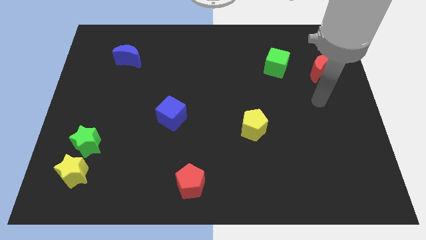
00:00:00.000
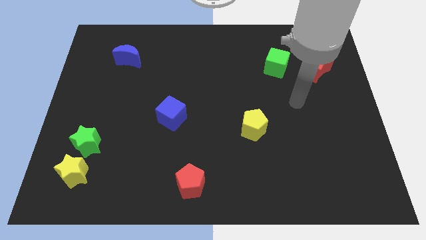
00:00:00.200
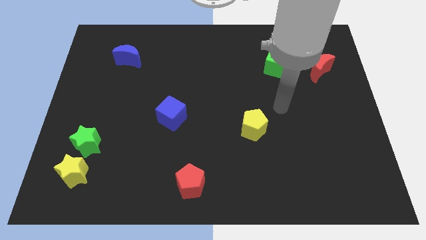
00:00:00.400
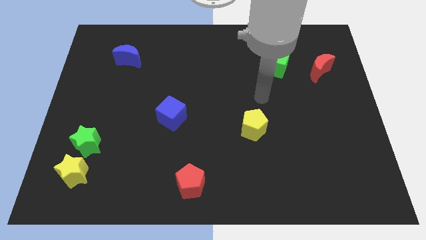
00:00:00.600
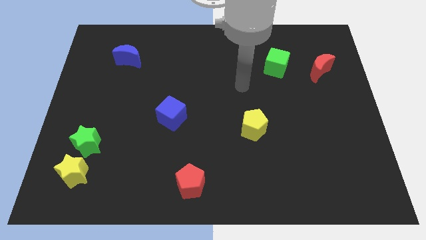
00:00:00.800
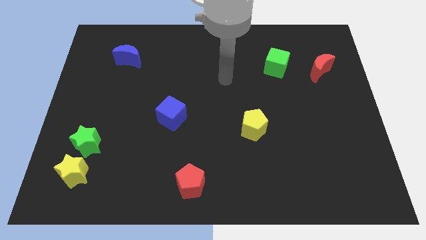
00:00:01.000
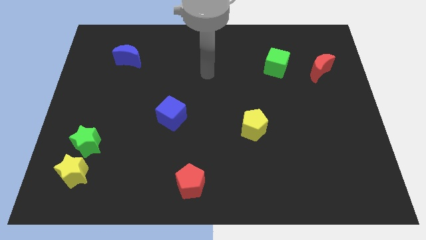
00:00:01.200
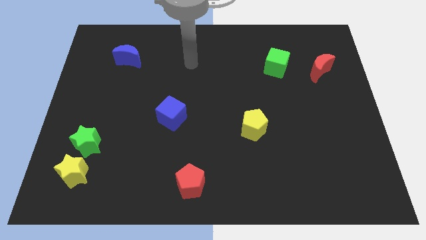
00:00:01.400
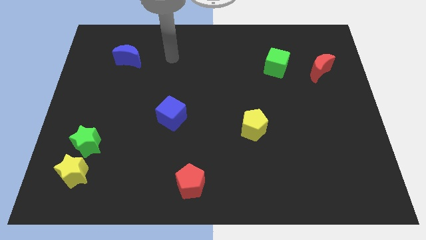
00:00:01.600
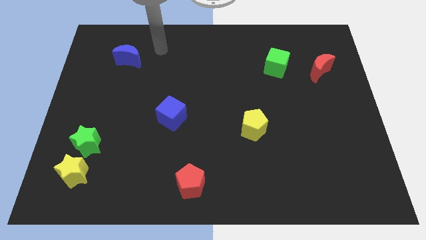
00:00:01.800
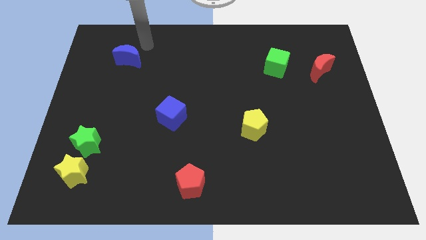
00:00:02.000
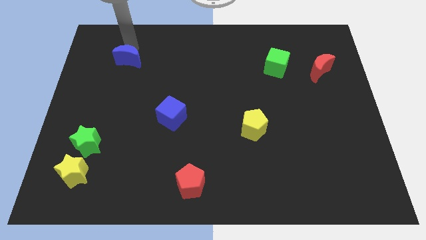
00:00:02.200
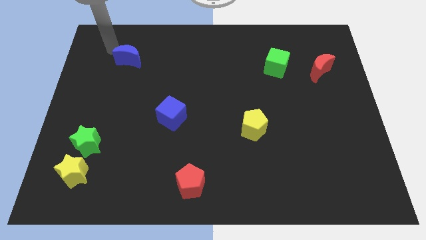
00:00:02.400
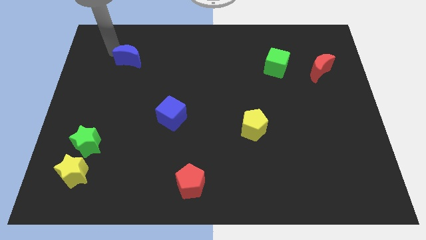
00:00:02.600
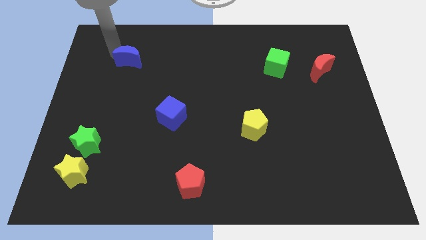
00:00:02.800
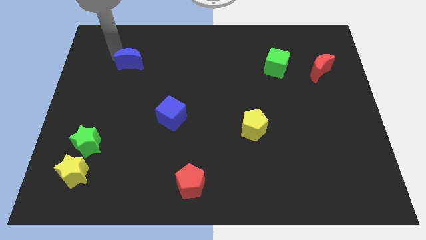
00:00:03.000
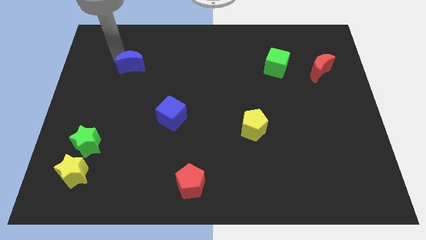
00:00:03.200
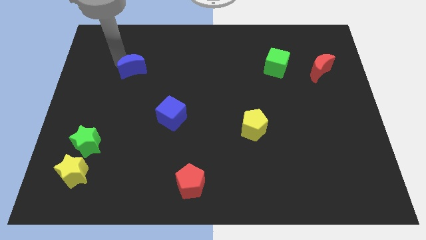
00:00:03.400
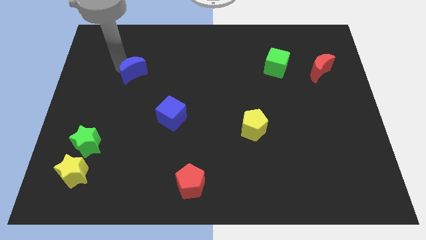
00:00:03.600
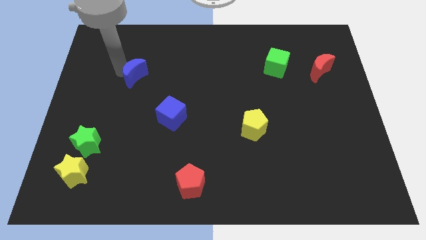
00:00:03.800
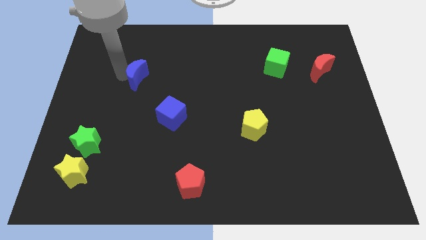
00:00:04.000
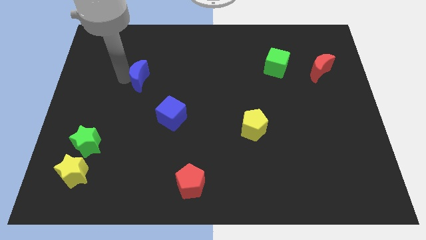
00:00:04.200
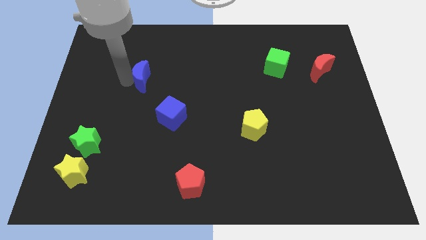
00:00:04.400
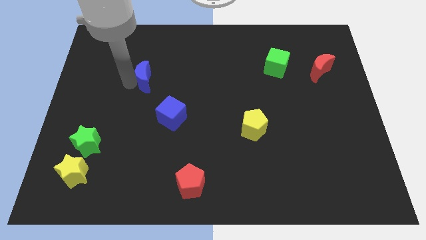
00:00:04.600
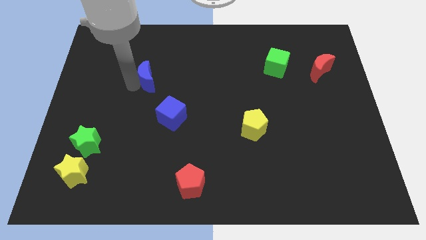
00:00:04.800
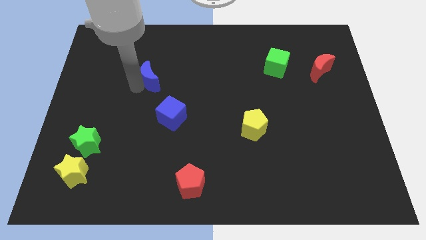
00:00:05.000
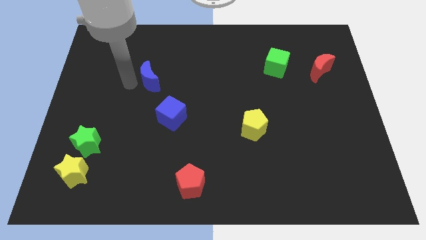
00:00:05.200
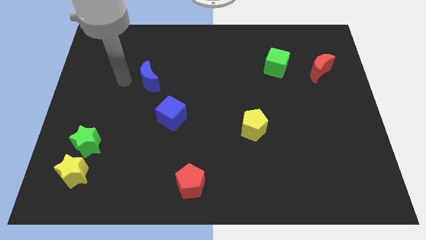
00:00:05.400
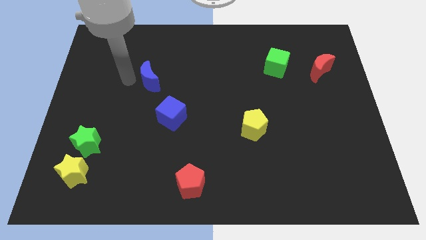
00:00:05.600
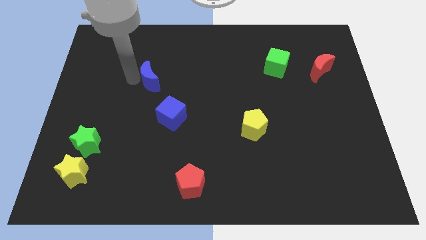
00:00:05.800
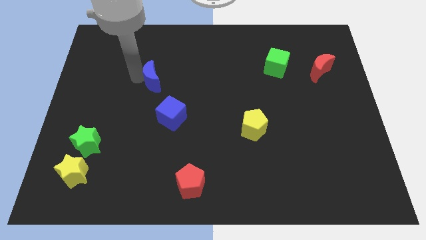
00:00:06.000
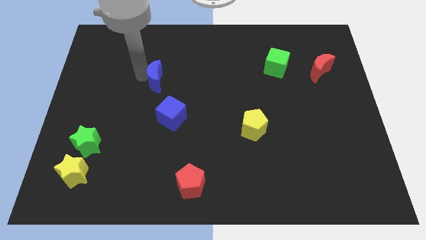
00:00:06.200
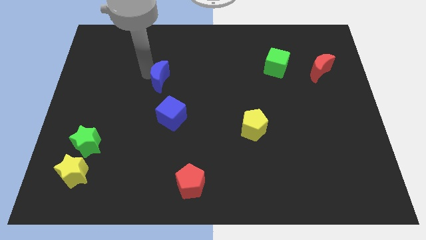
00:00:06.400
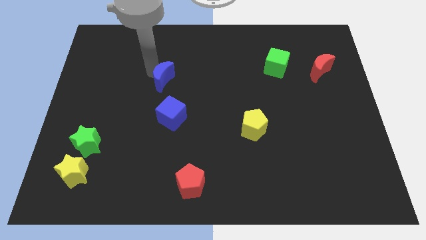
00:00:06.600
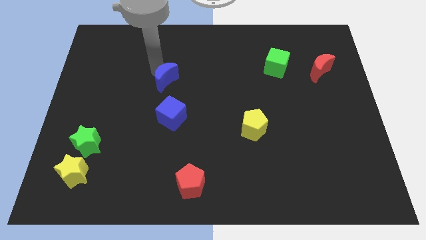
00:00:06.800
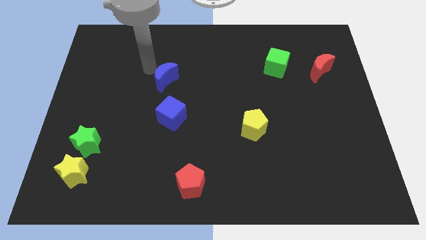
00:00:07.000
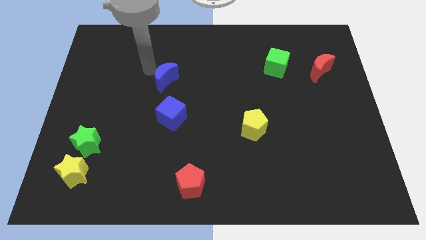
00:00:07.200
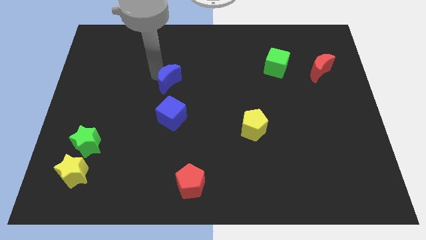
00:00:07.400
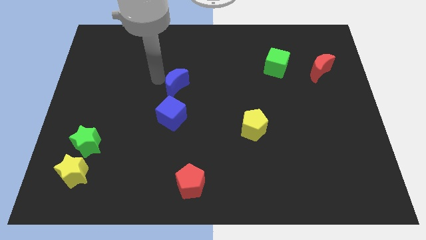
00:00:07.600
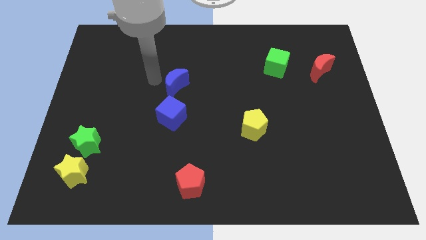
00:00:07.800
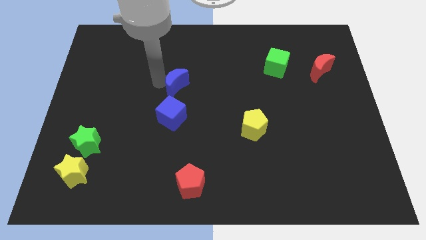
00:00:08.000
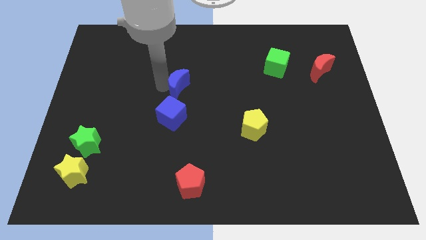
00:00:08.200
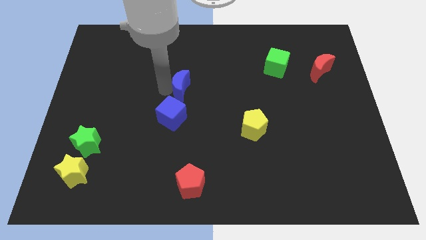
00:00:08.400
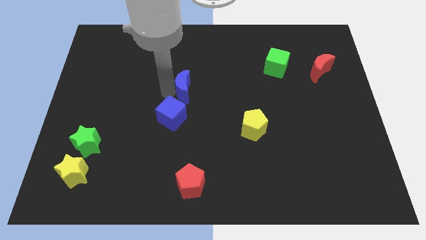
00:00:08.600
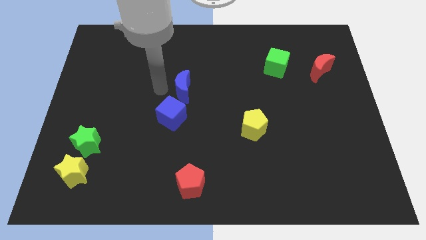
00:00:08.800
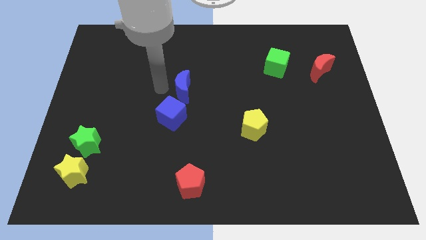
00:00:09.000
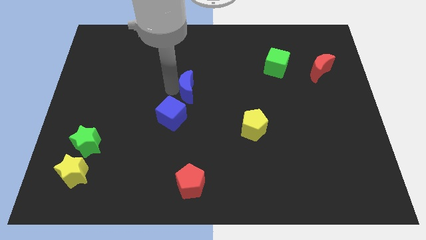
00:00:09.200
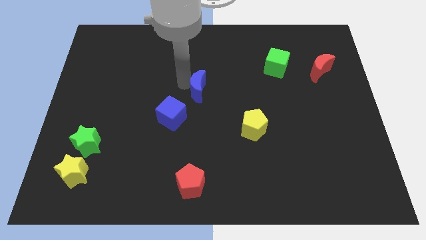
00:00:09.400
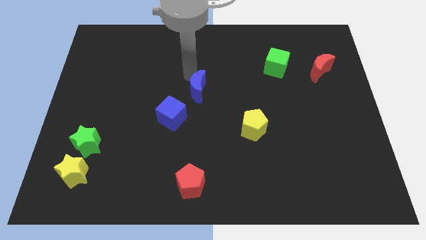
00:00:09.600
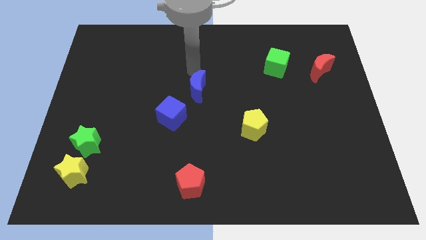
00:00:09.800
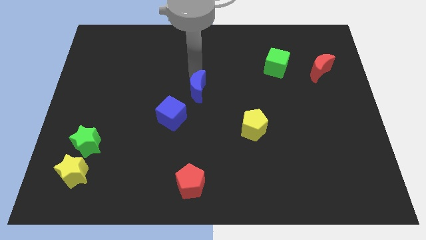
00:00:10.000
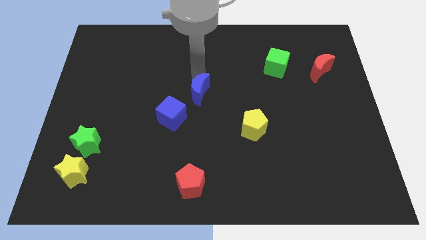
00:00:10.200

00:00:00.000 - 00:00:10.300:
move the blue moon downwards and to the right diagonally

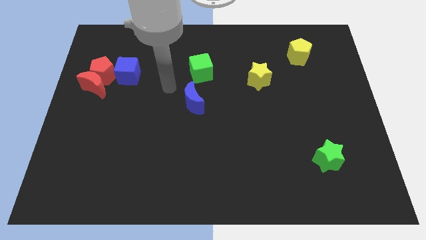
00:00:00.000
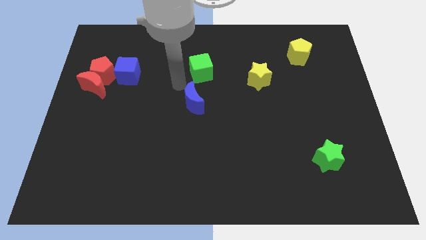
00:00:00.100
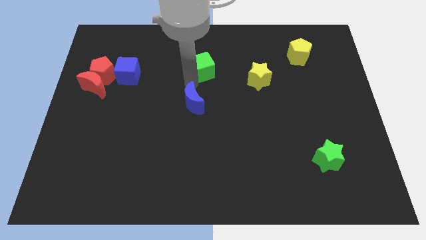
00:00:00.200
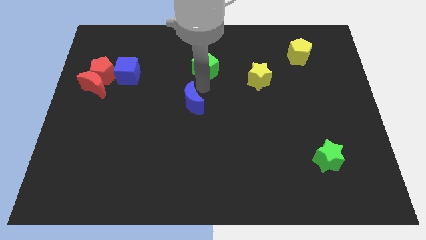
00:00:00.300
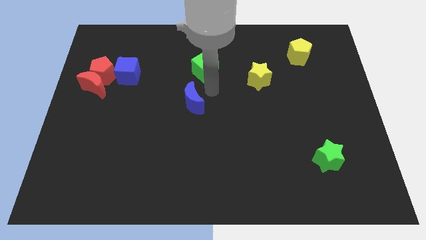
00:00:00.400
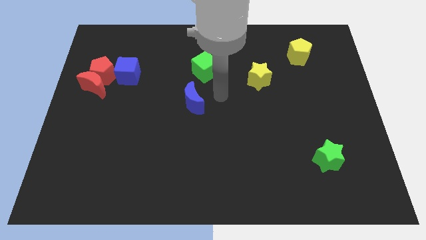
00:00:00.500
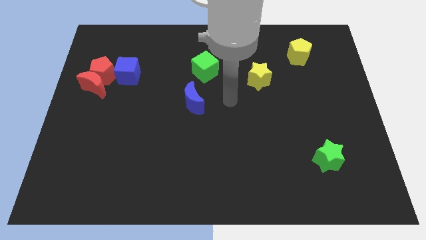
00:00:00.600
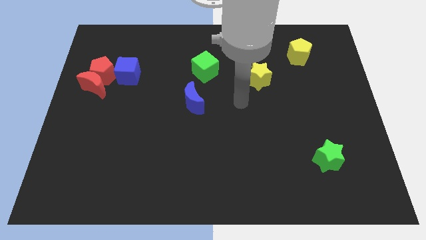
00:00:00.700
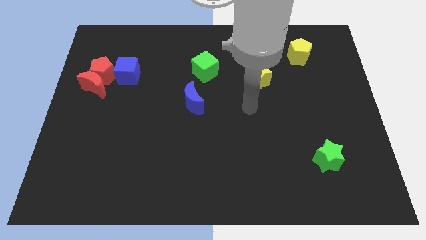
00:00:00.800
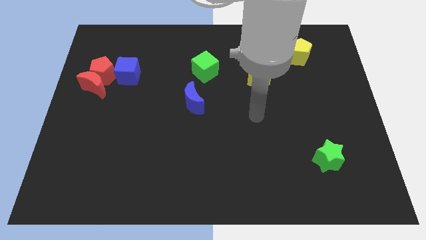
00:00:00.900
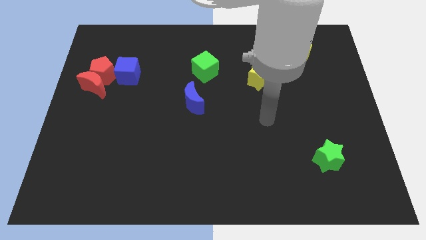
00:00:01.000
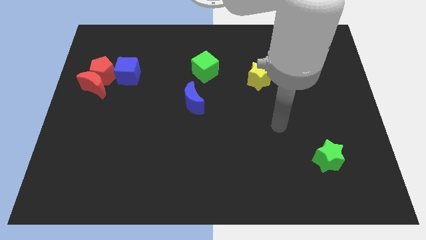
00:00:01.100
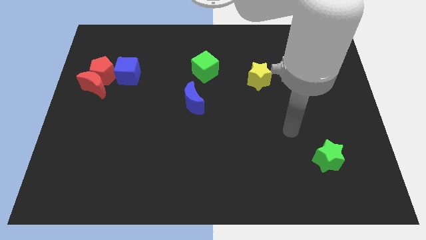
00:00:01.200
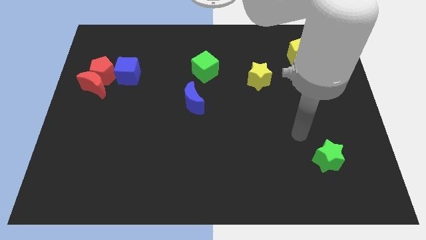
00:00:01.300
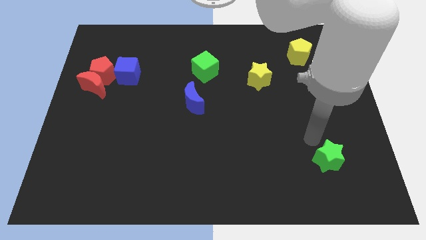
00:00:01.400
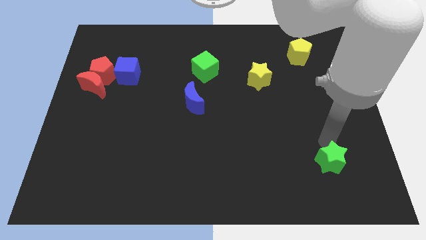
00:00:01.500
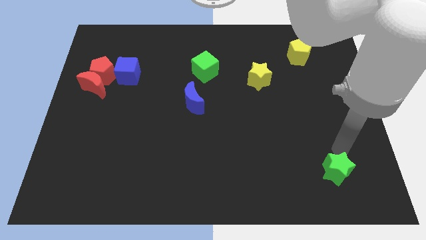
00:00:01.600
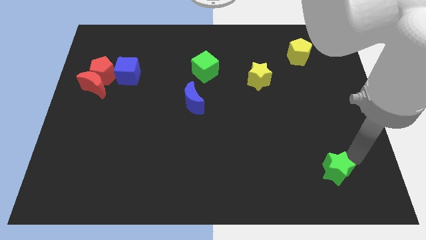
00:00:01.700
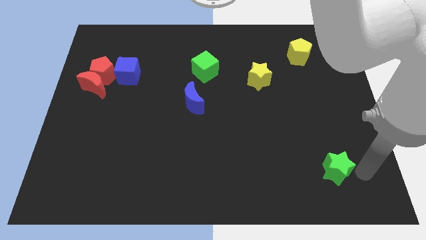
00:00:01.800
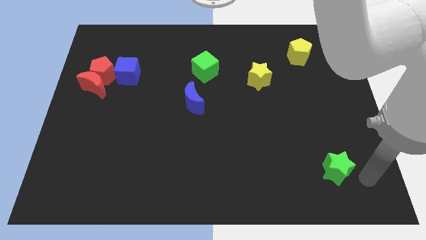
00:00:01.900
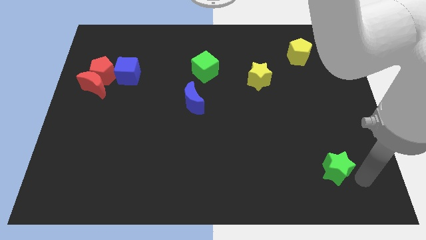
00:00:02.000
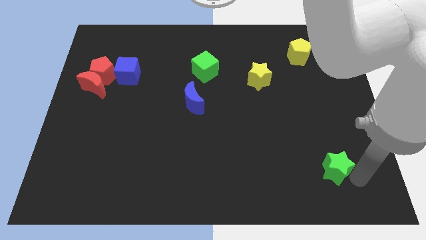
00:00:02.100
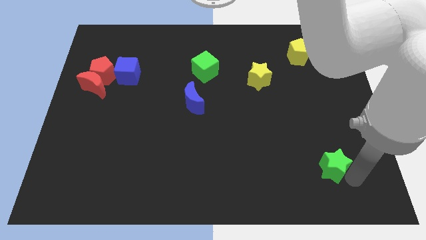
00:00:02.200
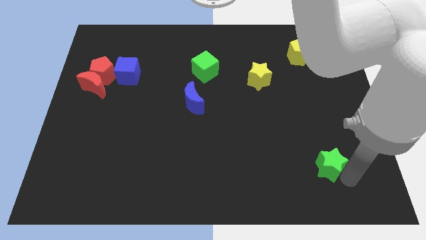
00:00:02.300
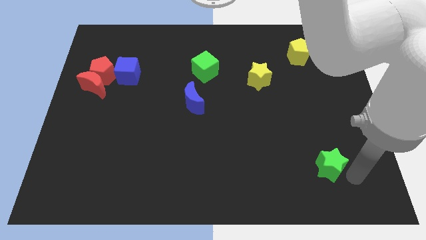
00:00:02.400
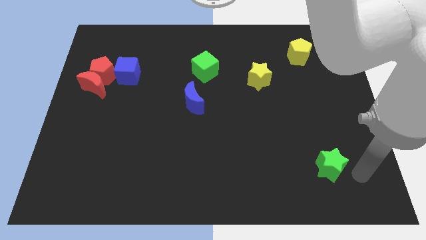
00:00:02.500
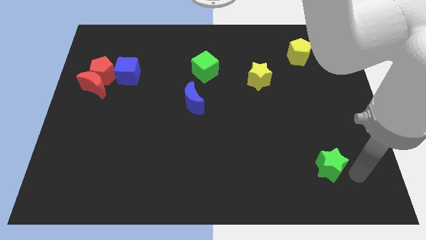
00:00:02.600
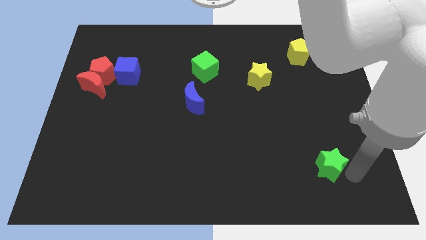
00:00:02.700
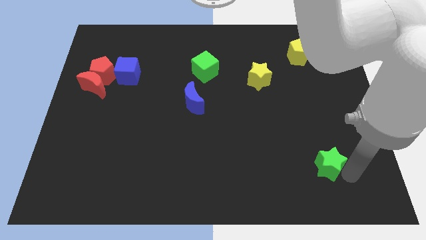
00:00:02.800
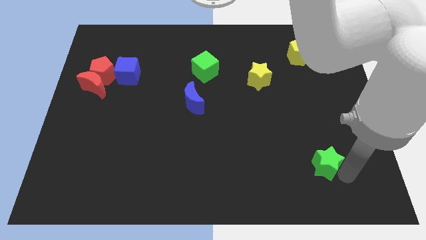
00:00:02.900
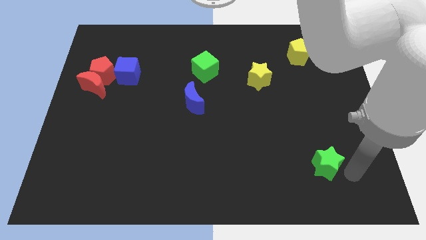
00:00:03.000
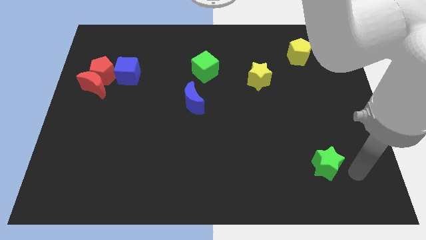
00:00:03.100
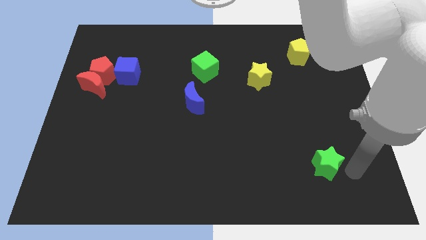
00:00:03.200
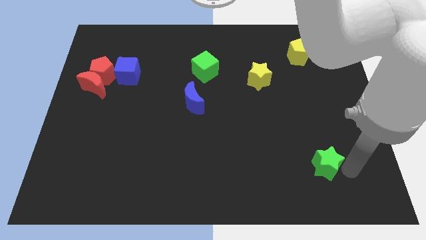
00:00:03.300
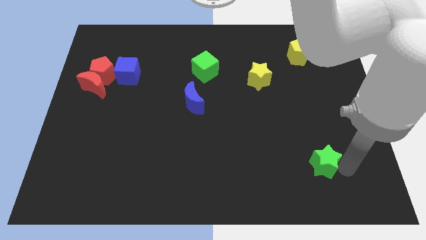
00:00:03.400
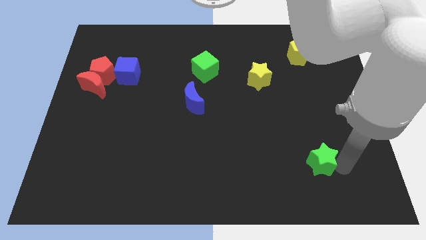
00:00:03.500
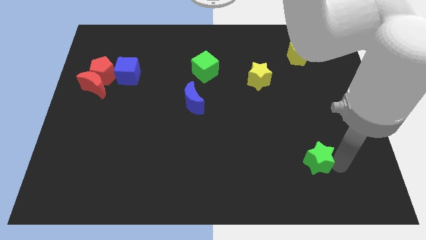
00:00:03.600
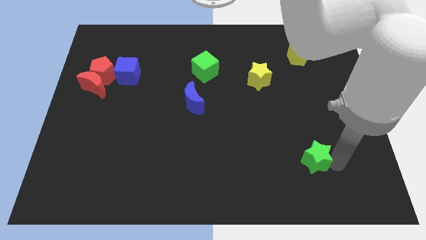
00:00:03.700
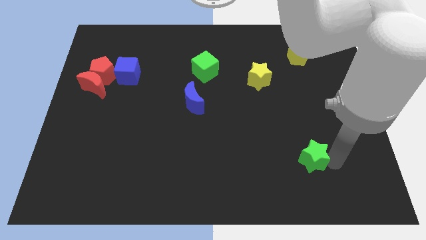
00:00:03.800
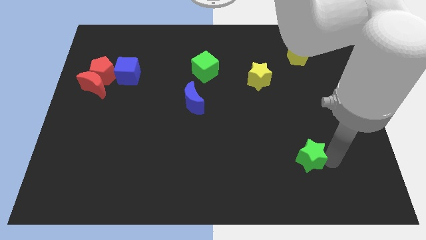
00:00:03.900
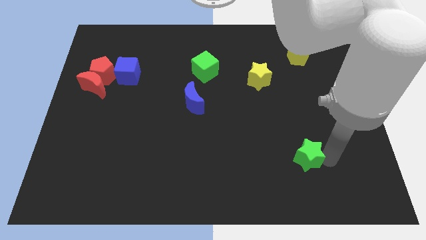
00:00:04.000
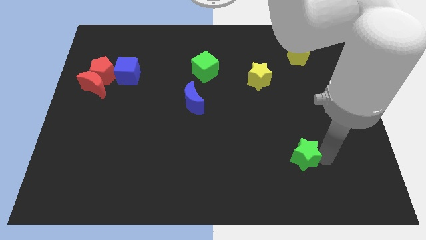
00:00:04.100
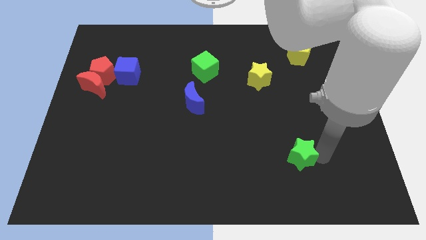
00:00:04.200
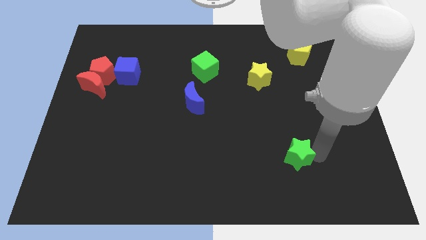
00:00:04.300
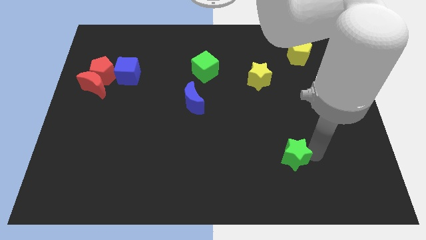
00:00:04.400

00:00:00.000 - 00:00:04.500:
push the green star slightly to the left
